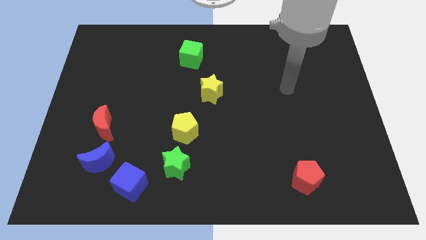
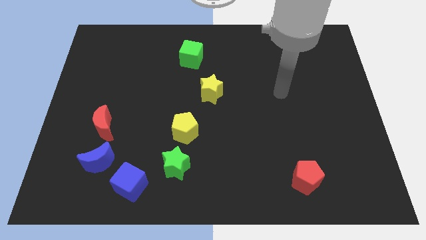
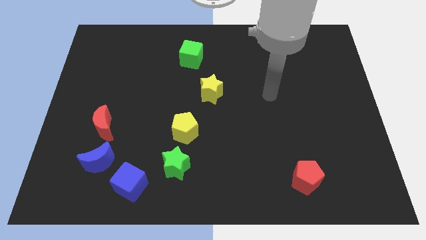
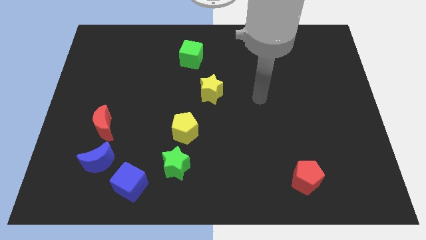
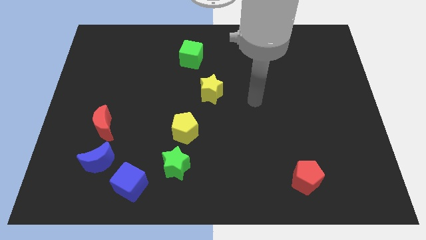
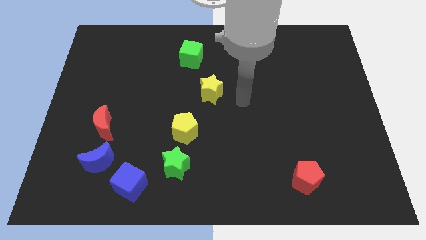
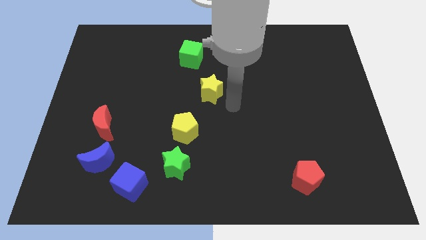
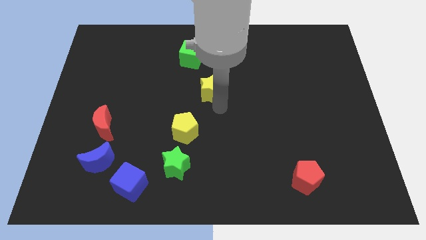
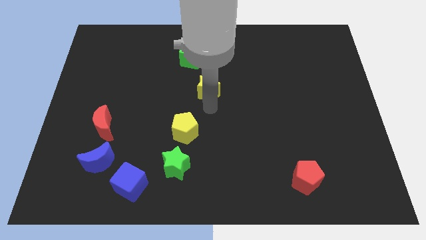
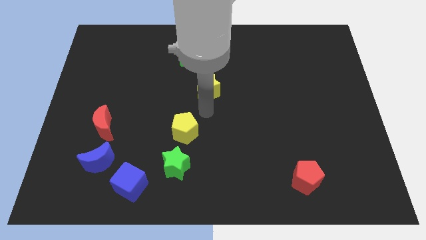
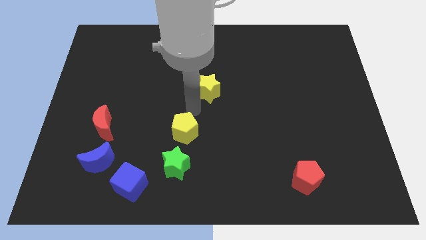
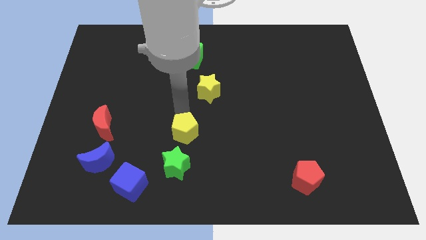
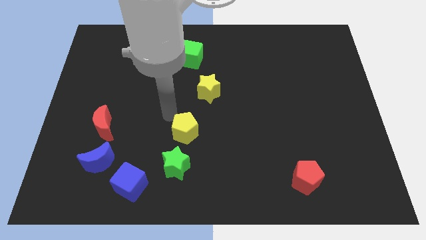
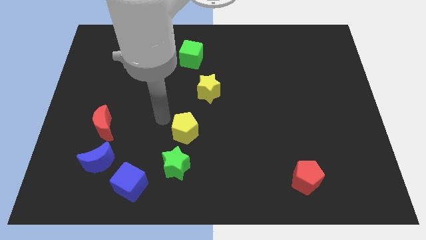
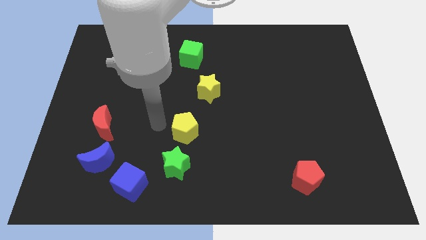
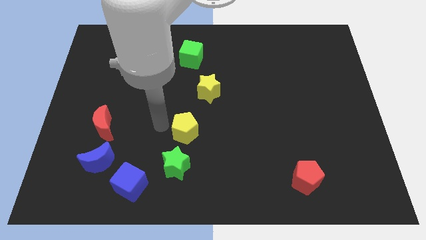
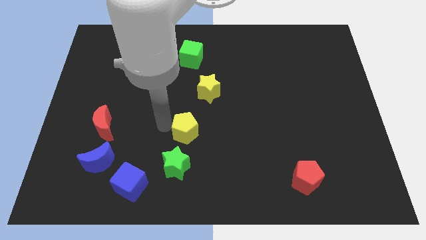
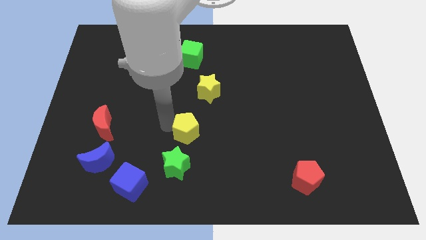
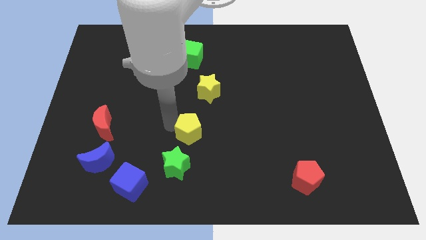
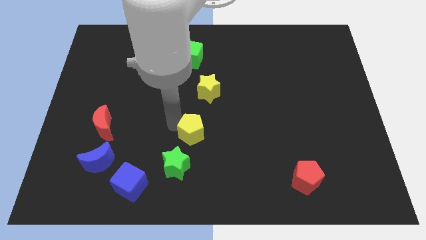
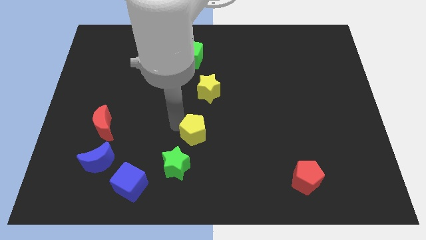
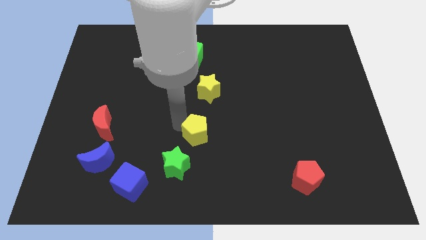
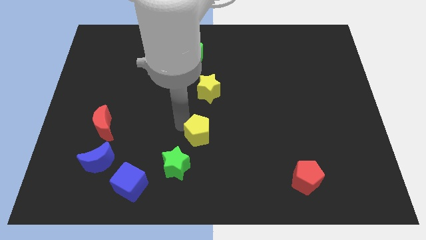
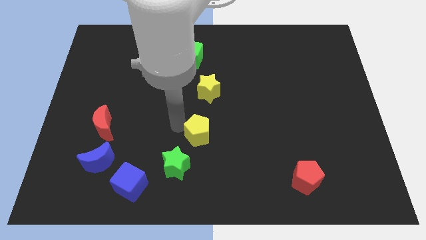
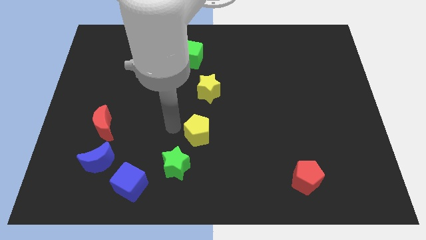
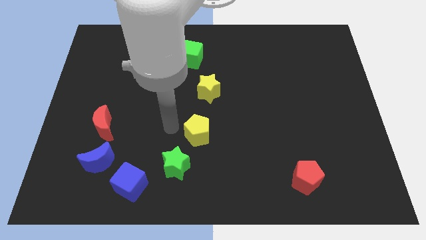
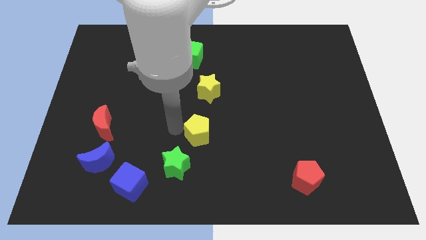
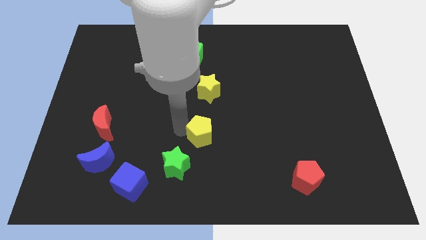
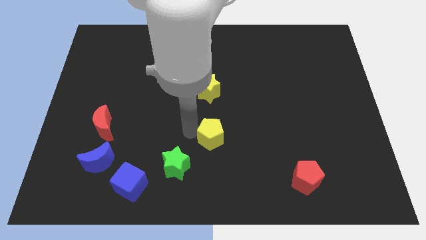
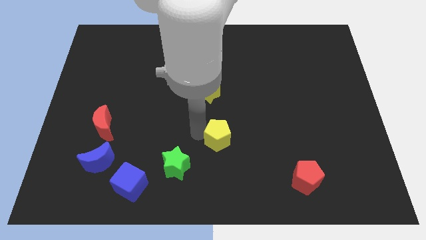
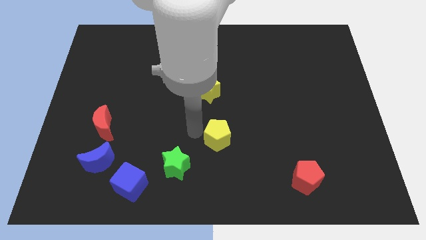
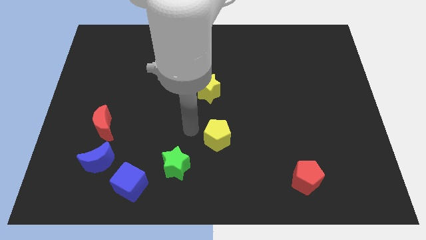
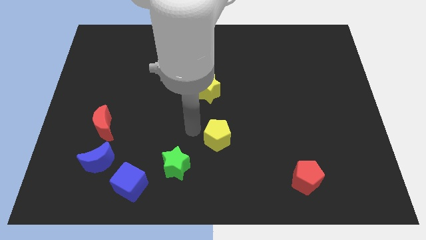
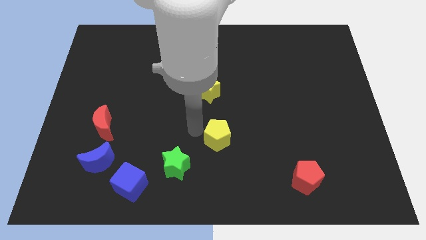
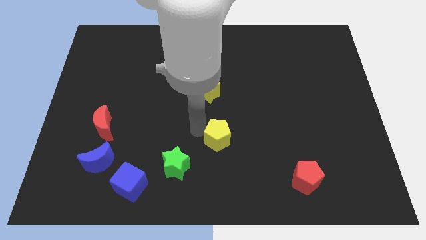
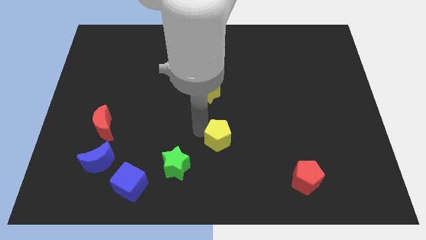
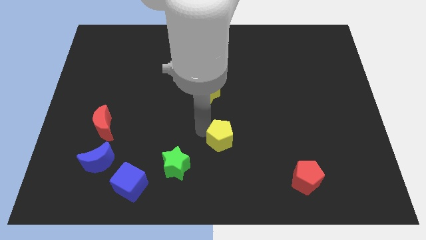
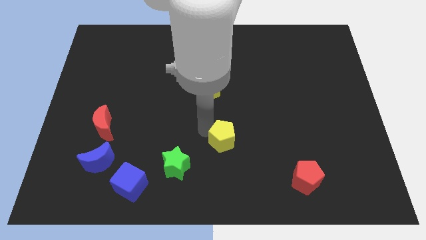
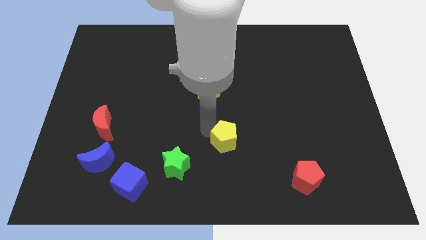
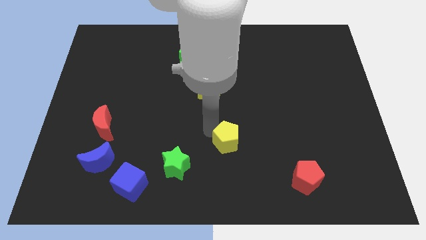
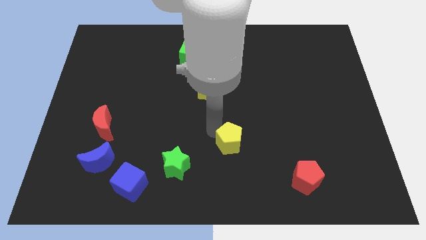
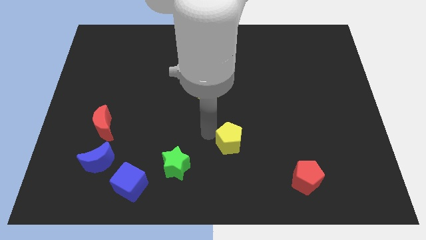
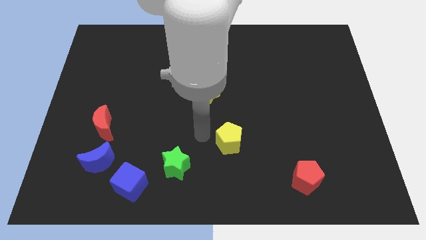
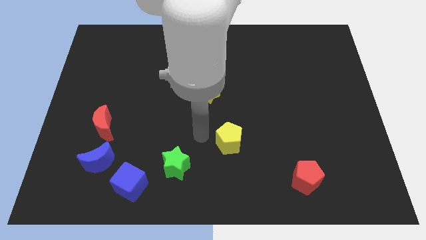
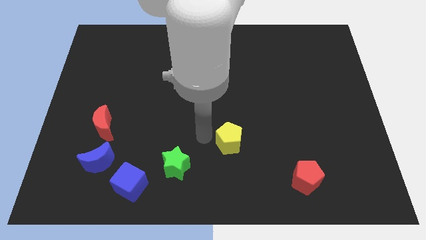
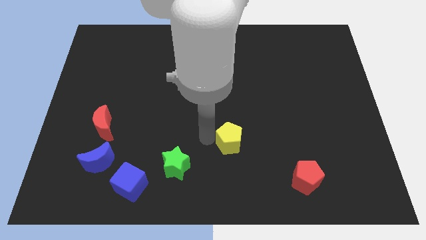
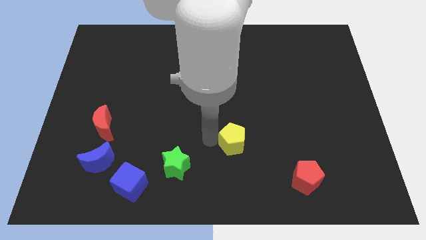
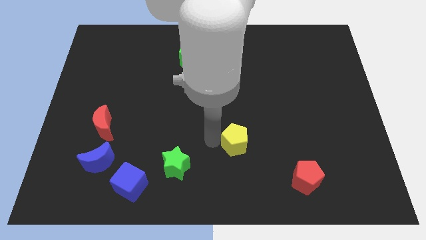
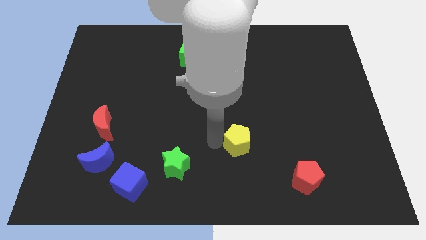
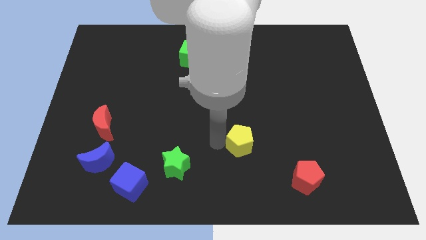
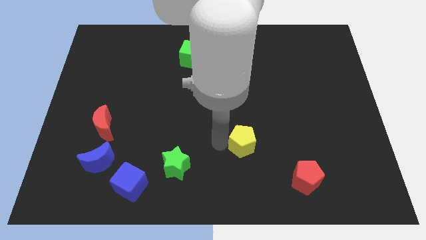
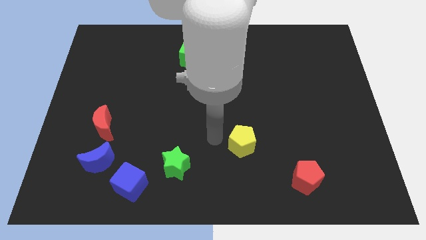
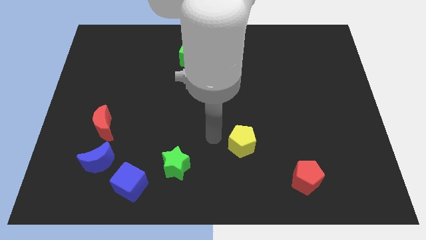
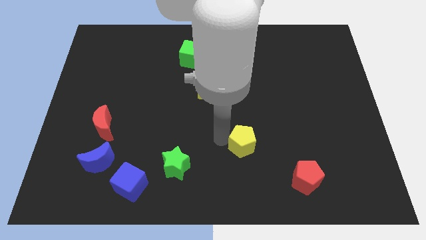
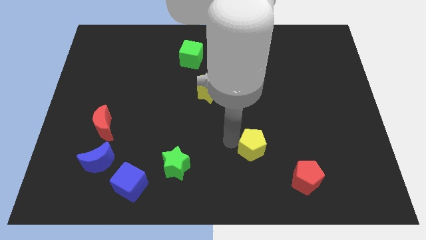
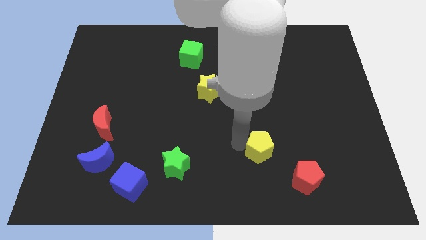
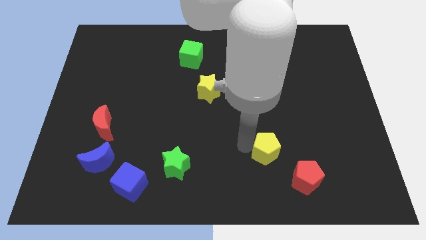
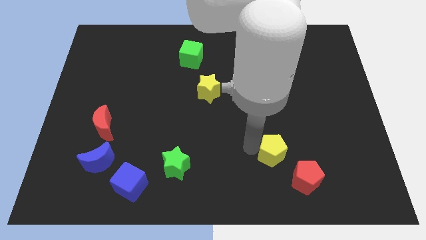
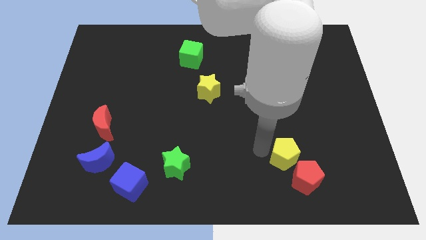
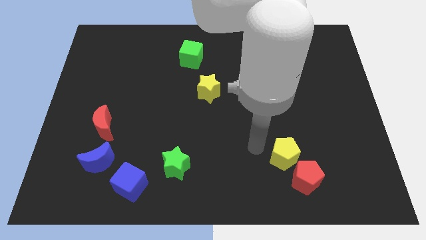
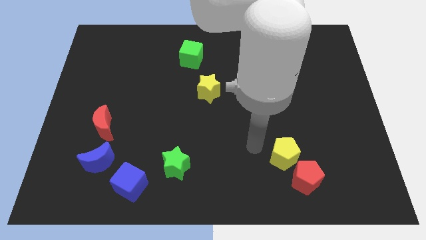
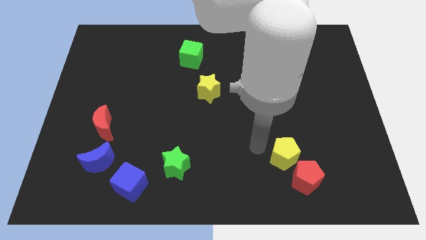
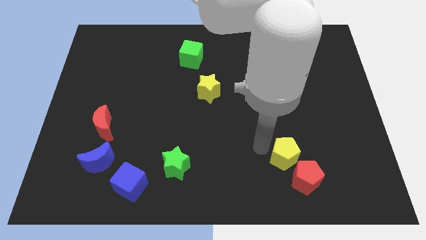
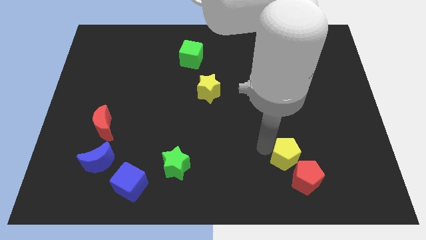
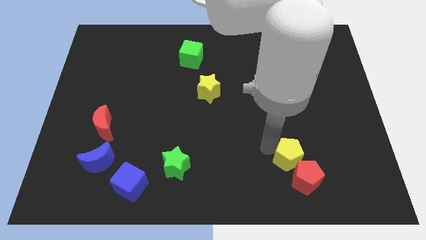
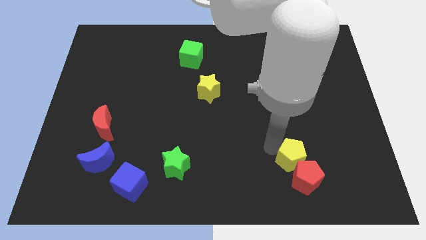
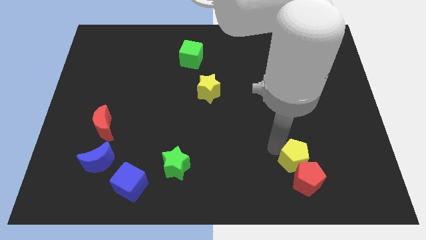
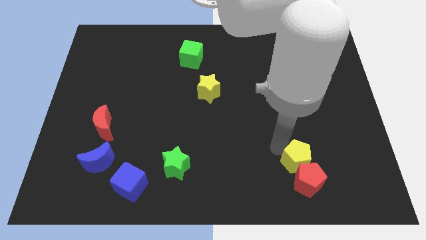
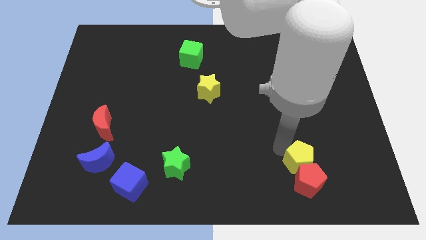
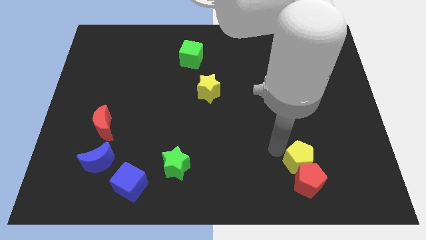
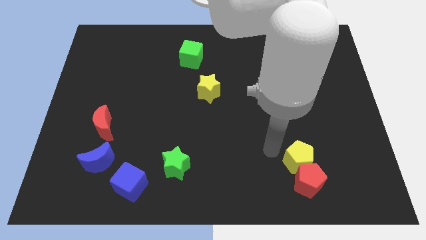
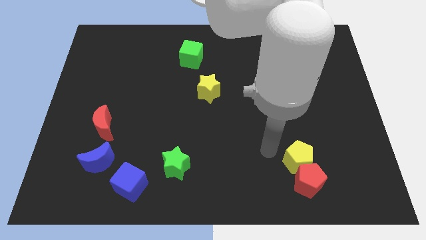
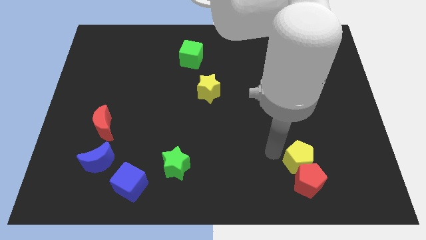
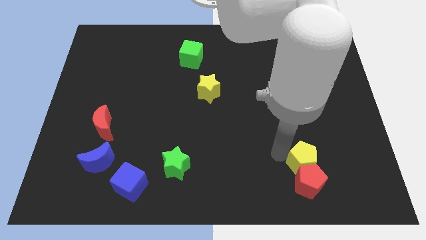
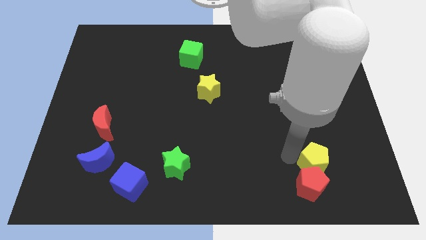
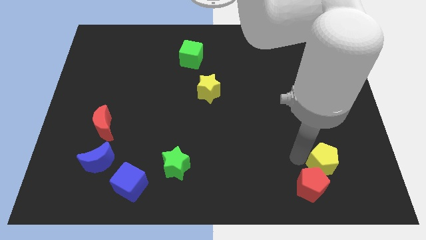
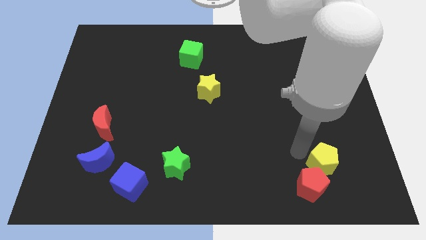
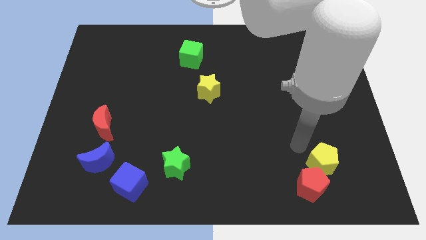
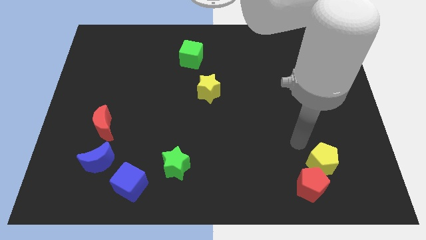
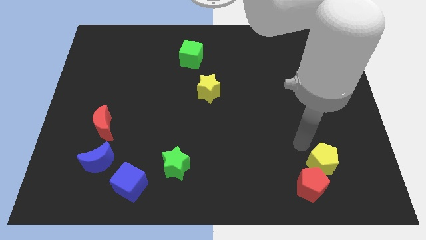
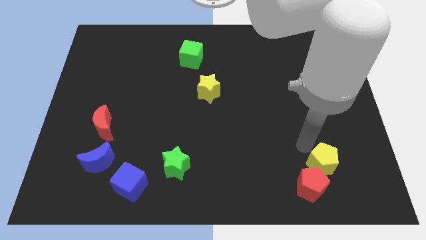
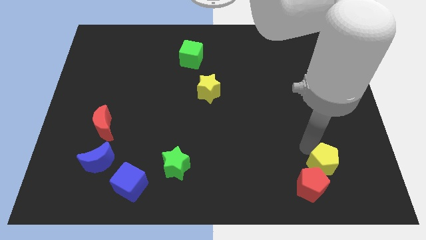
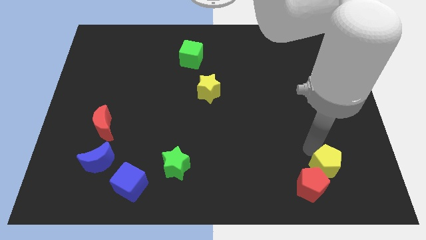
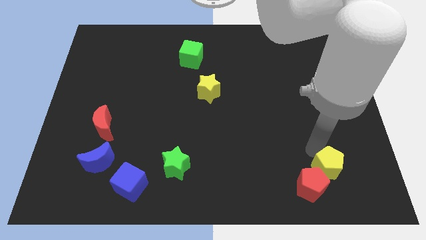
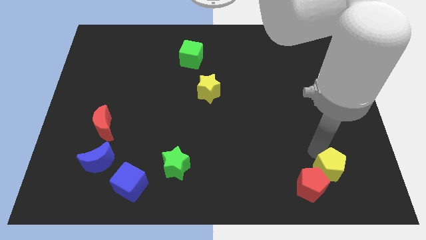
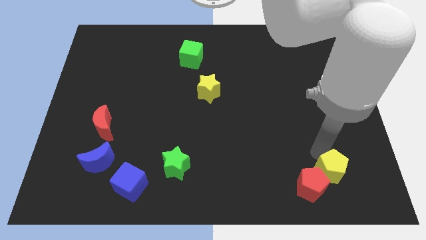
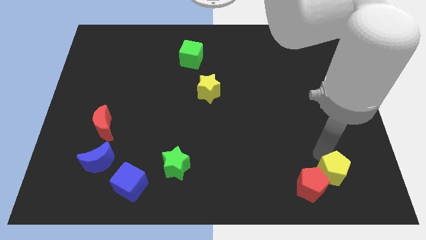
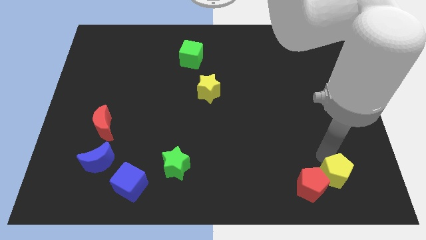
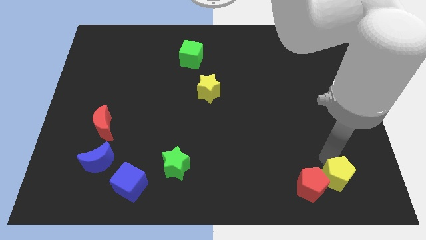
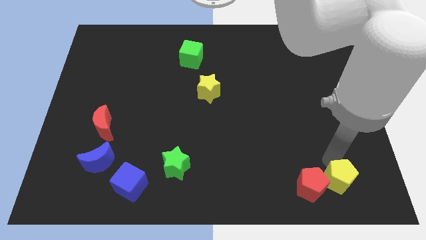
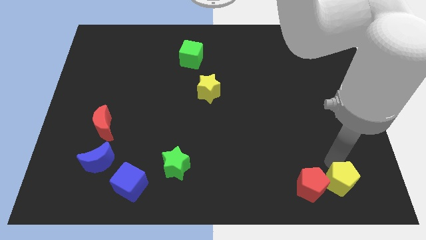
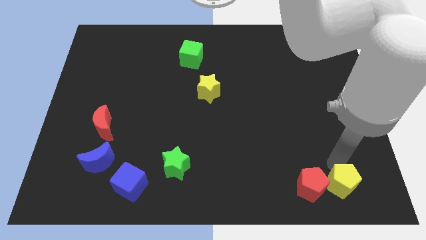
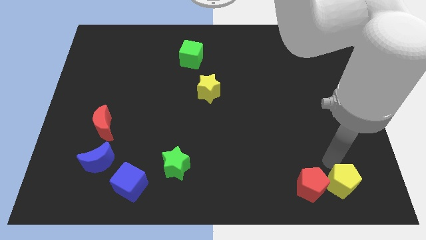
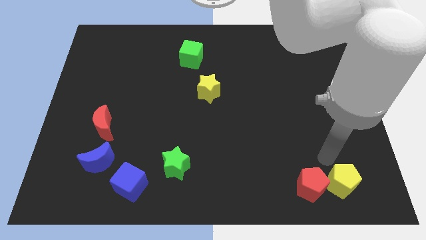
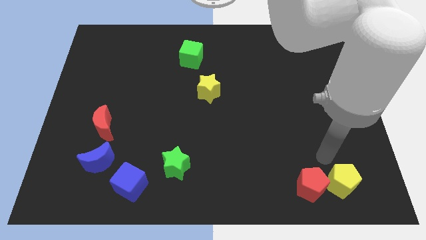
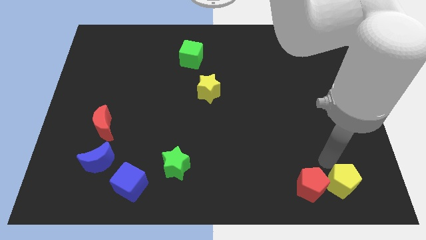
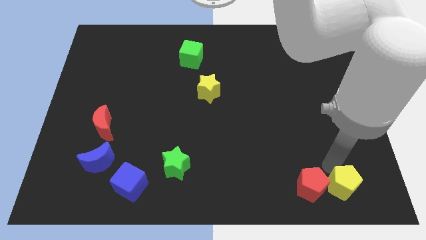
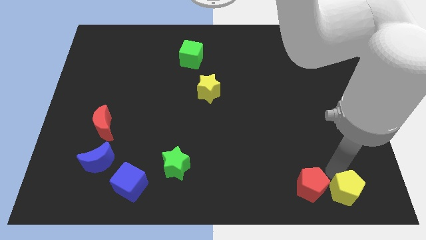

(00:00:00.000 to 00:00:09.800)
slide the yellow pentagon to the lower right corner
